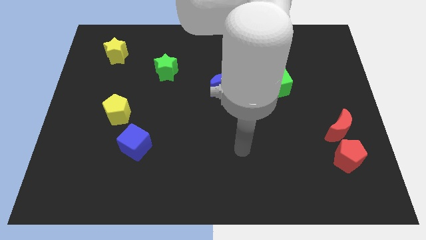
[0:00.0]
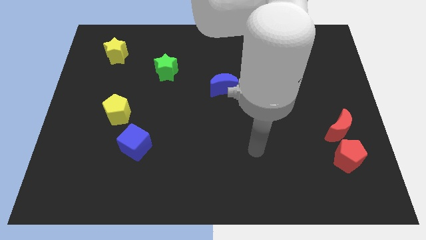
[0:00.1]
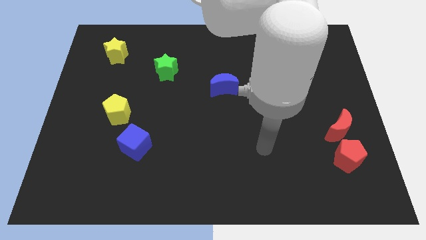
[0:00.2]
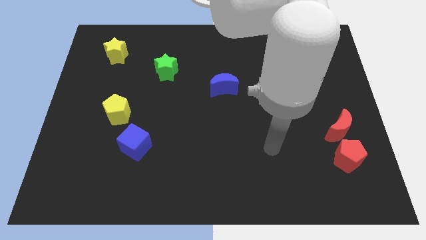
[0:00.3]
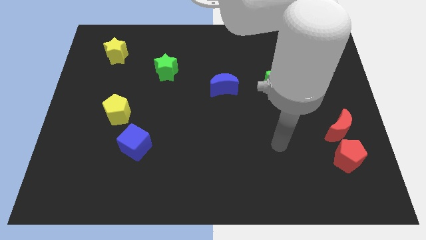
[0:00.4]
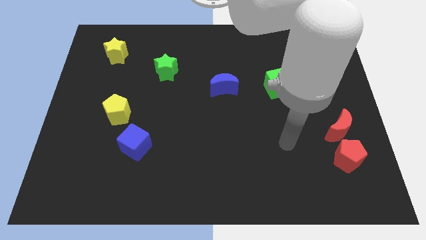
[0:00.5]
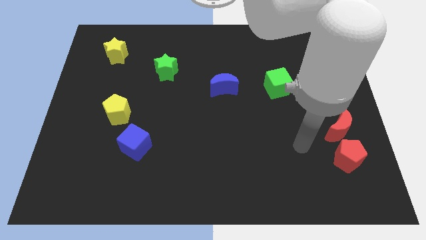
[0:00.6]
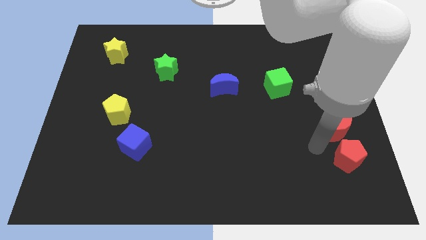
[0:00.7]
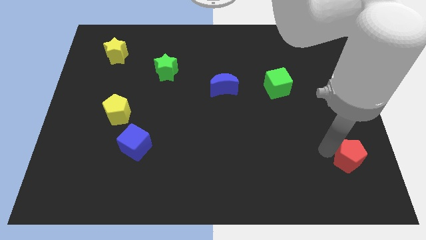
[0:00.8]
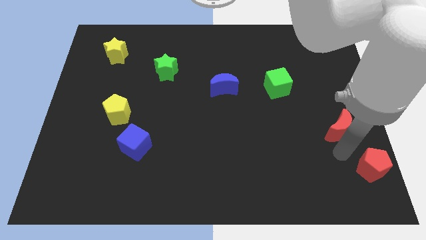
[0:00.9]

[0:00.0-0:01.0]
separate the red moon from the red pentagon

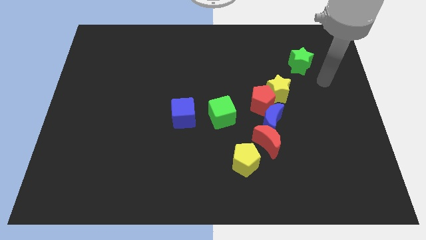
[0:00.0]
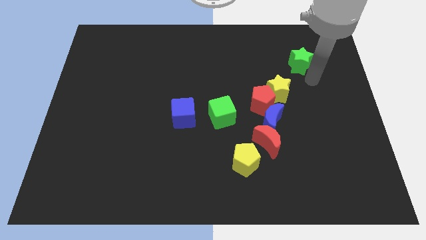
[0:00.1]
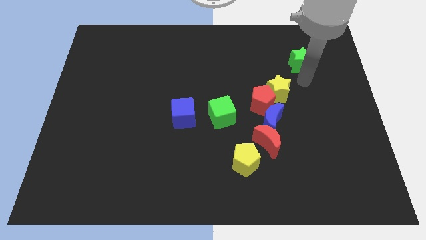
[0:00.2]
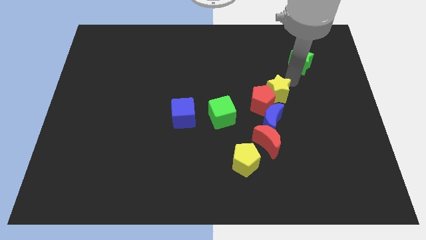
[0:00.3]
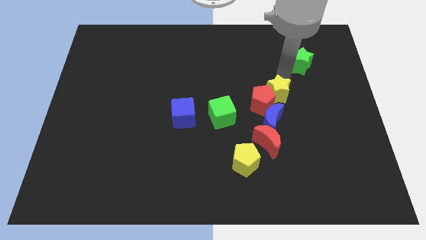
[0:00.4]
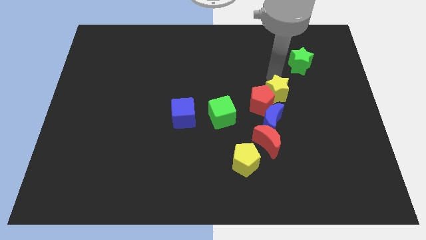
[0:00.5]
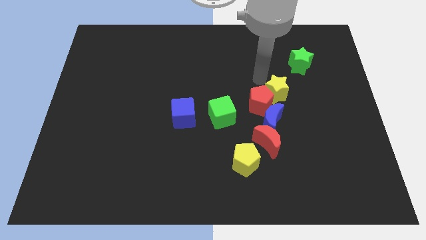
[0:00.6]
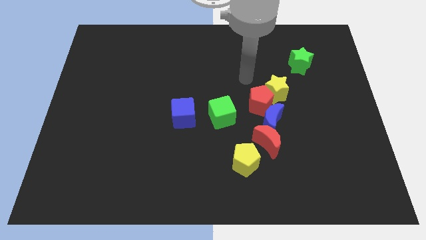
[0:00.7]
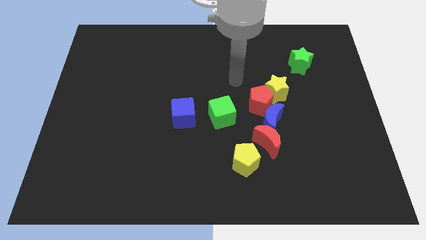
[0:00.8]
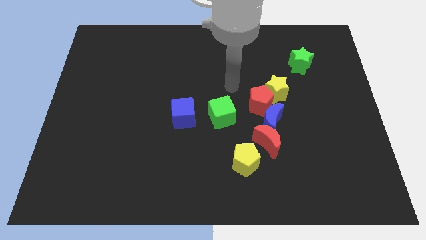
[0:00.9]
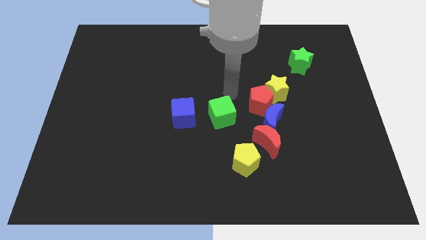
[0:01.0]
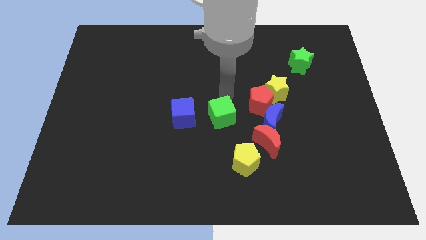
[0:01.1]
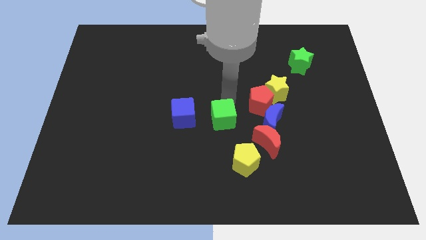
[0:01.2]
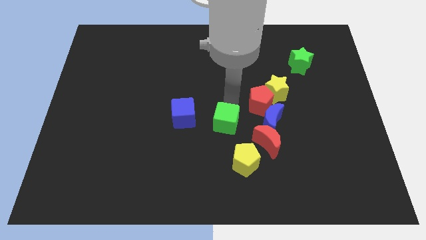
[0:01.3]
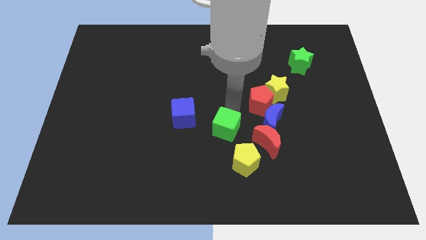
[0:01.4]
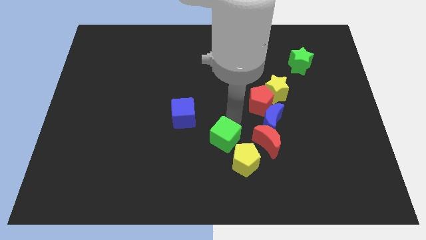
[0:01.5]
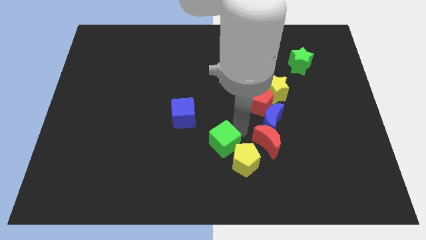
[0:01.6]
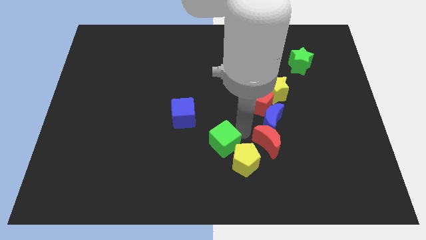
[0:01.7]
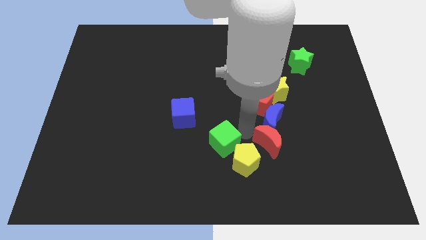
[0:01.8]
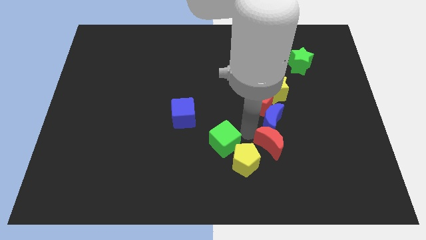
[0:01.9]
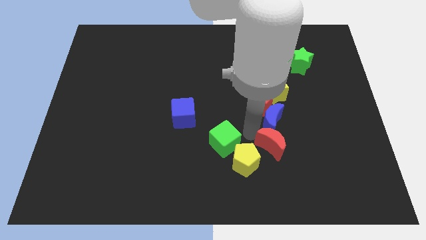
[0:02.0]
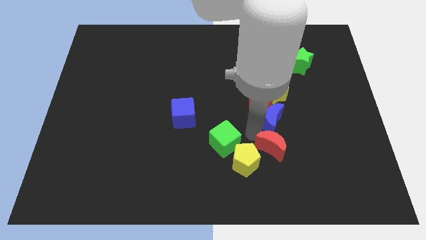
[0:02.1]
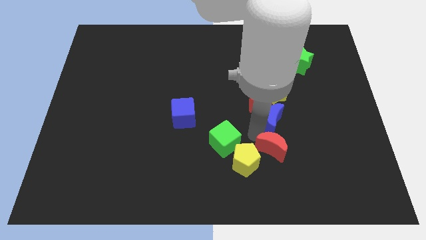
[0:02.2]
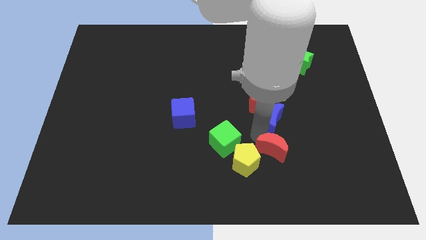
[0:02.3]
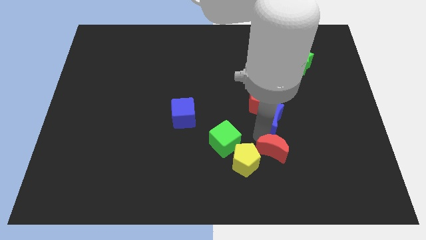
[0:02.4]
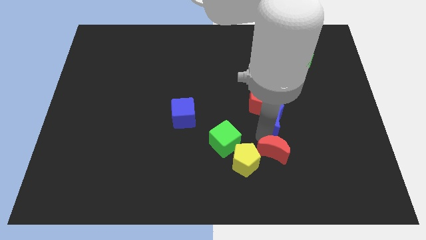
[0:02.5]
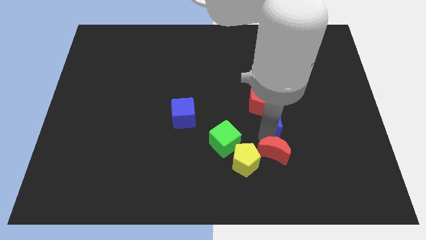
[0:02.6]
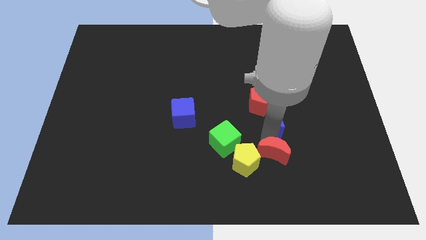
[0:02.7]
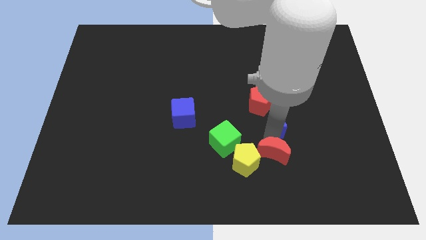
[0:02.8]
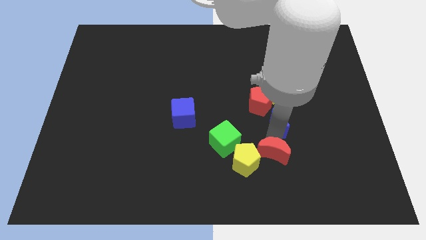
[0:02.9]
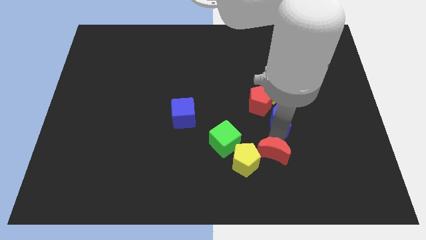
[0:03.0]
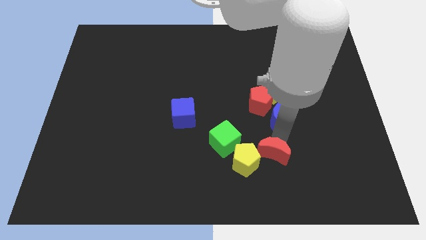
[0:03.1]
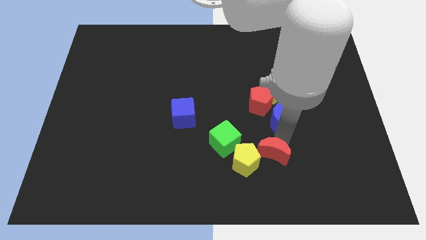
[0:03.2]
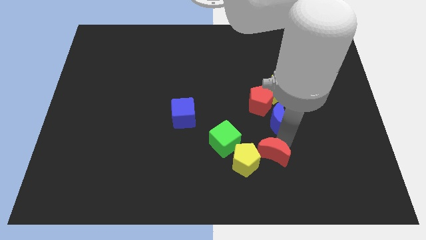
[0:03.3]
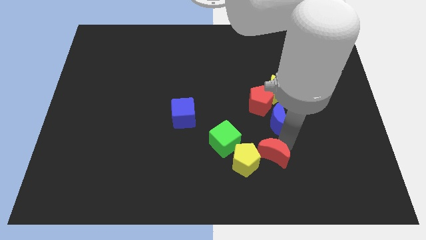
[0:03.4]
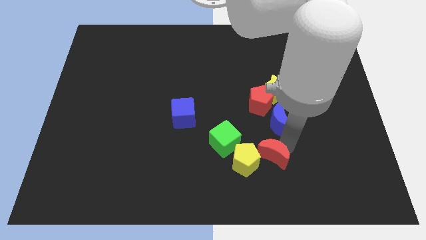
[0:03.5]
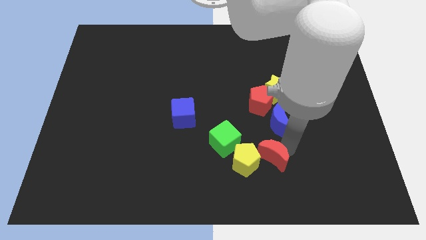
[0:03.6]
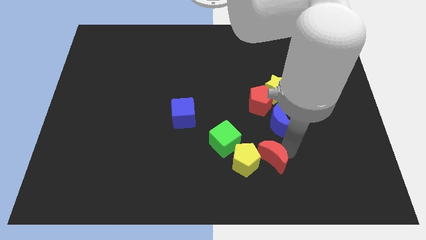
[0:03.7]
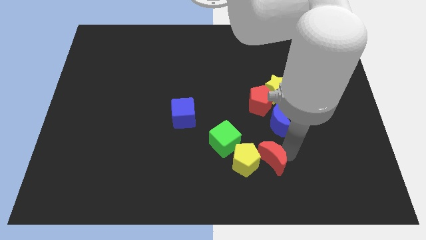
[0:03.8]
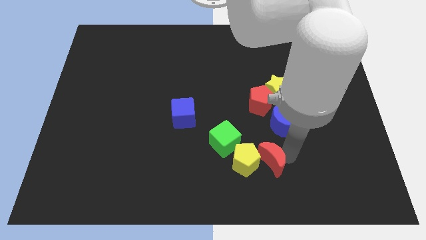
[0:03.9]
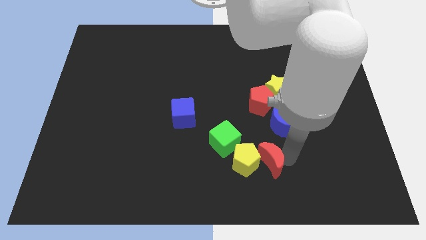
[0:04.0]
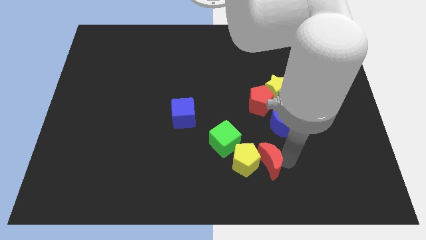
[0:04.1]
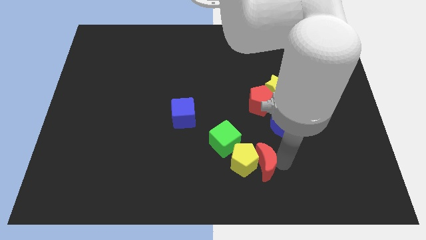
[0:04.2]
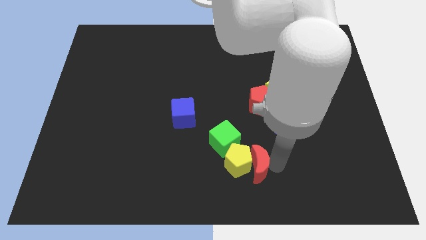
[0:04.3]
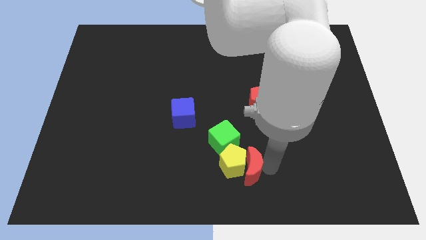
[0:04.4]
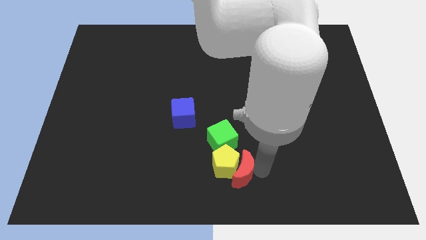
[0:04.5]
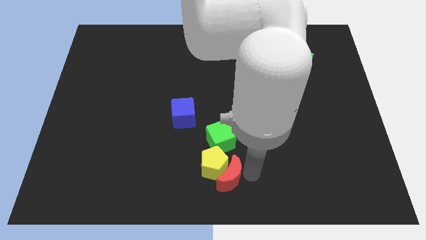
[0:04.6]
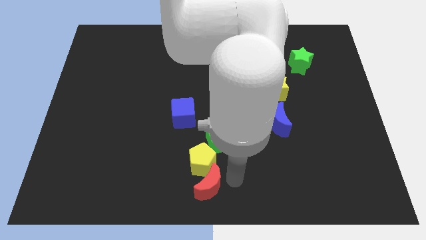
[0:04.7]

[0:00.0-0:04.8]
move the red moon away from the blue moon and yellow pentagon

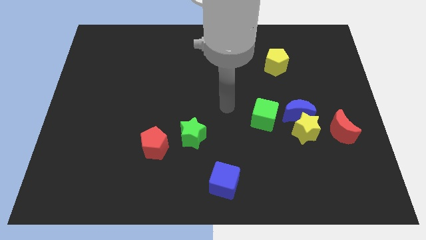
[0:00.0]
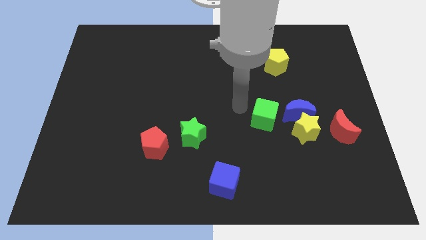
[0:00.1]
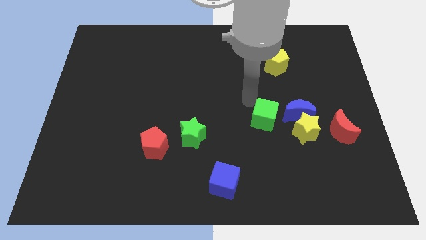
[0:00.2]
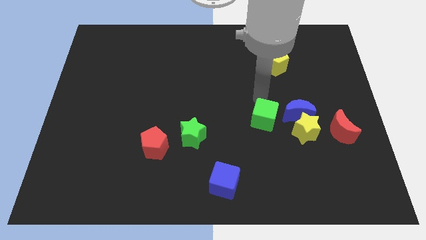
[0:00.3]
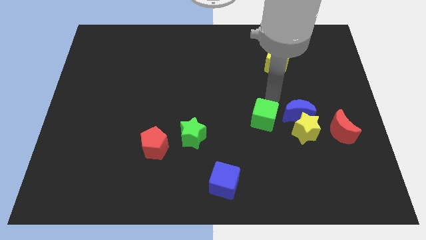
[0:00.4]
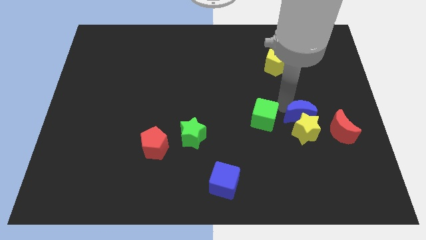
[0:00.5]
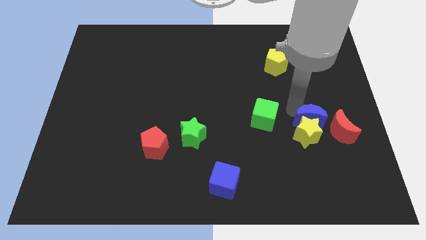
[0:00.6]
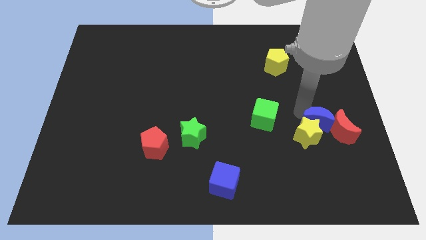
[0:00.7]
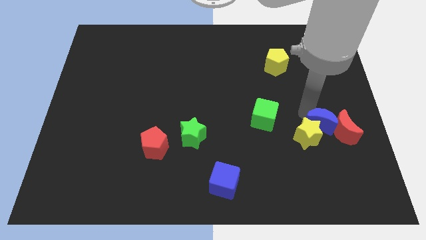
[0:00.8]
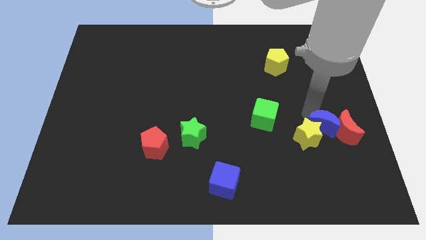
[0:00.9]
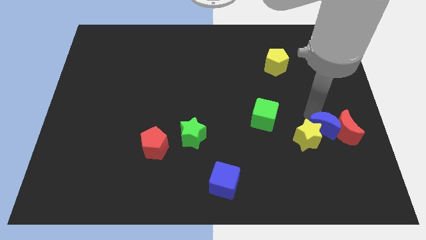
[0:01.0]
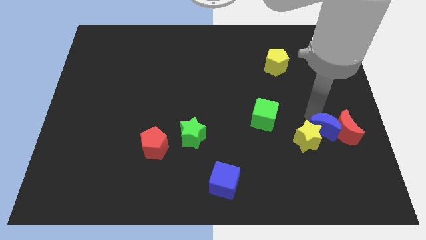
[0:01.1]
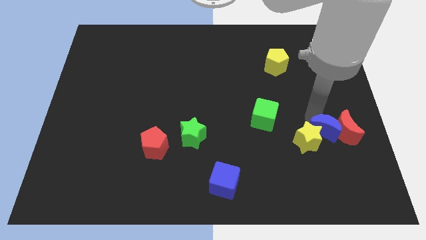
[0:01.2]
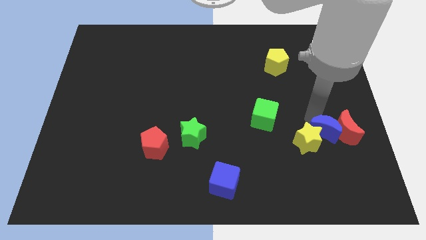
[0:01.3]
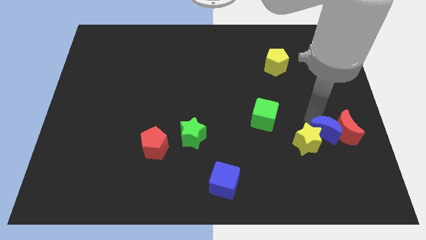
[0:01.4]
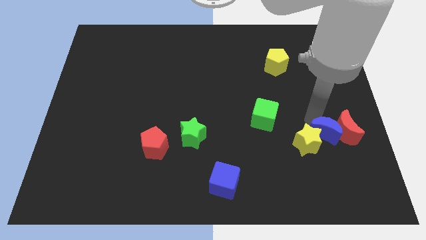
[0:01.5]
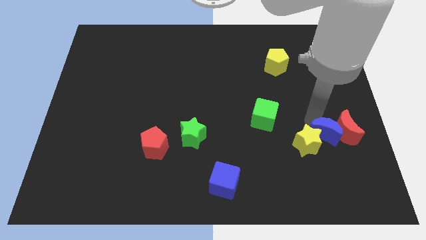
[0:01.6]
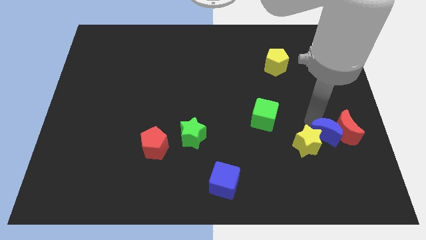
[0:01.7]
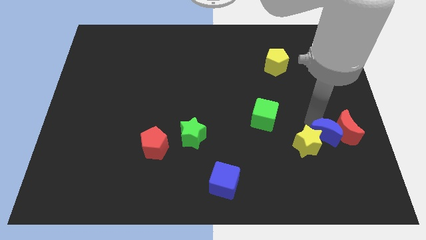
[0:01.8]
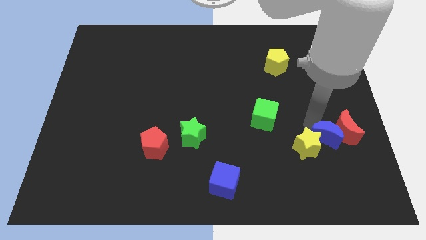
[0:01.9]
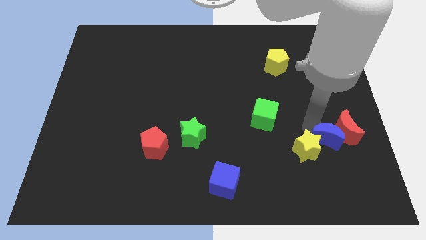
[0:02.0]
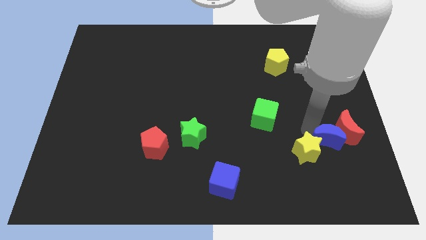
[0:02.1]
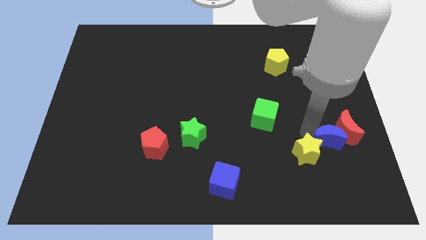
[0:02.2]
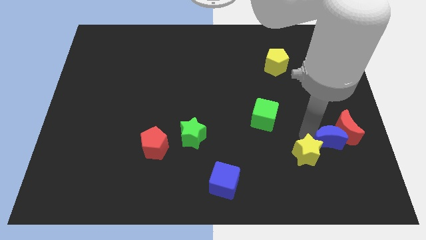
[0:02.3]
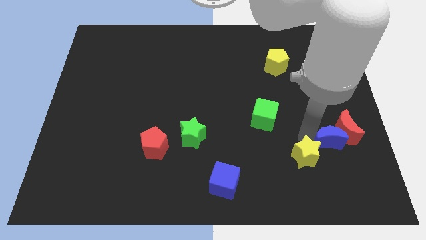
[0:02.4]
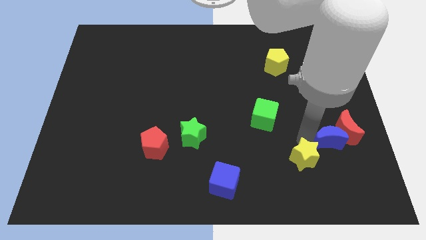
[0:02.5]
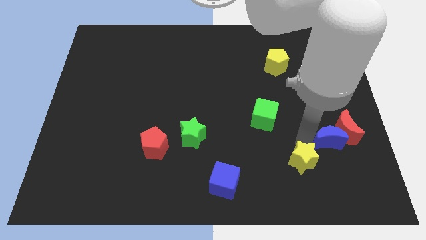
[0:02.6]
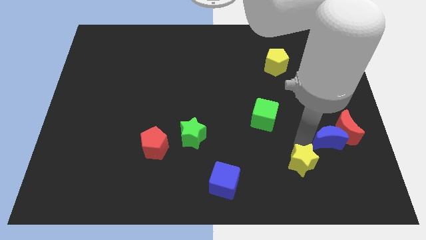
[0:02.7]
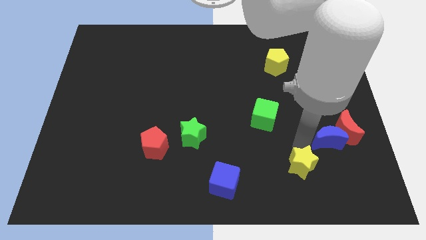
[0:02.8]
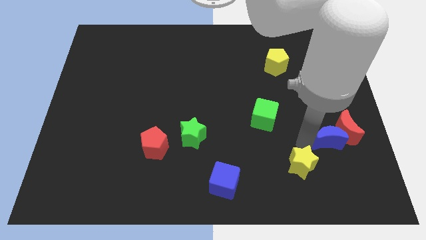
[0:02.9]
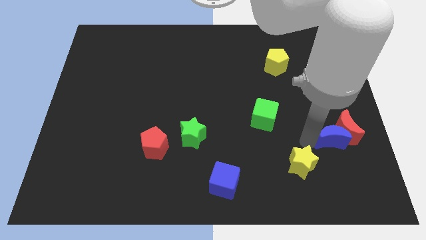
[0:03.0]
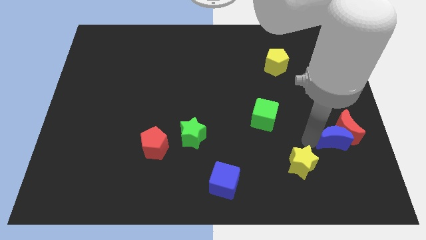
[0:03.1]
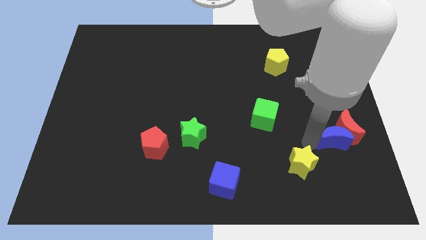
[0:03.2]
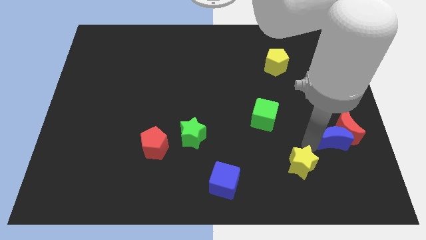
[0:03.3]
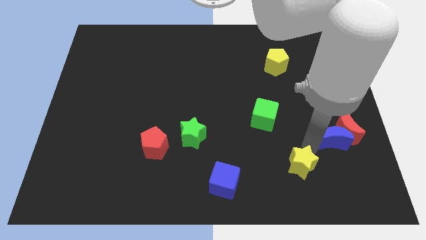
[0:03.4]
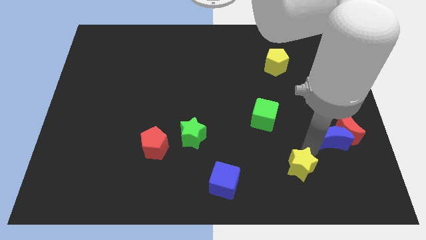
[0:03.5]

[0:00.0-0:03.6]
pull the yellow star apart from the clump
